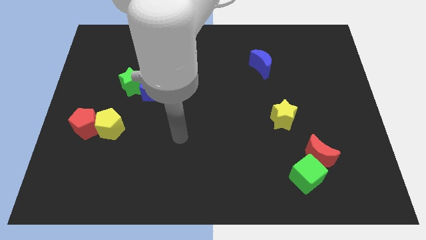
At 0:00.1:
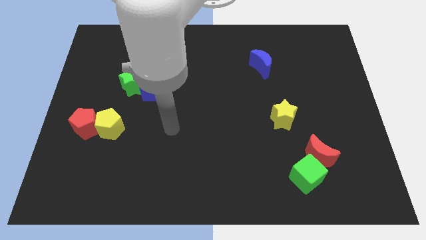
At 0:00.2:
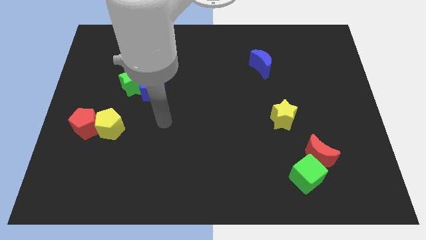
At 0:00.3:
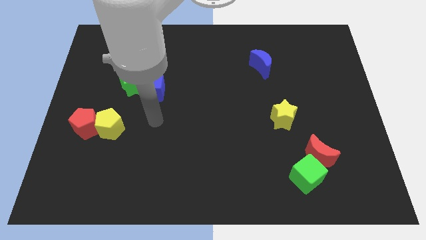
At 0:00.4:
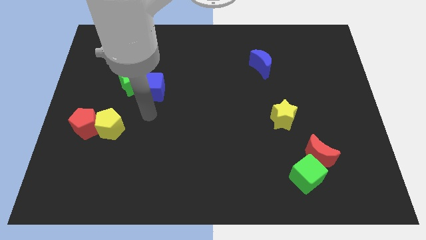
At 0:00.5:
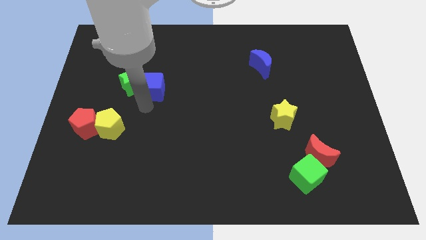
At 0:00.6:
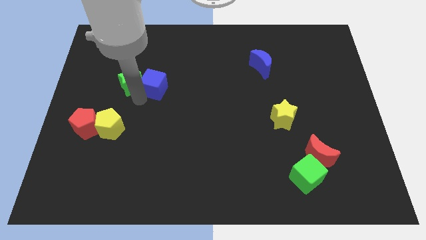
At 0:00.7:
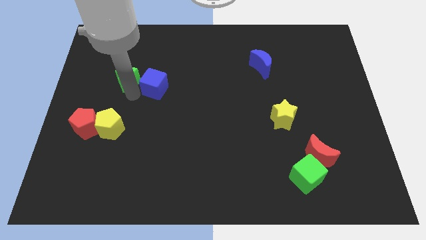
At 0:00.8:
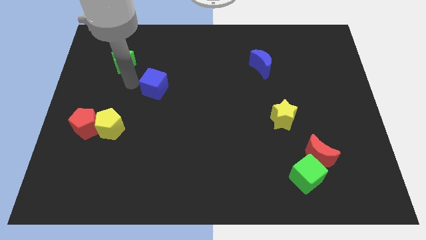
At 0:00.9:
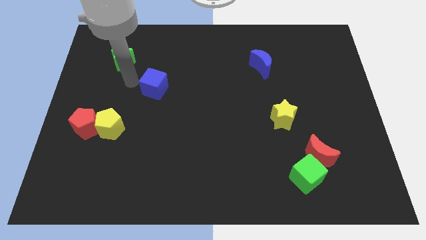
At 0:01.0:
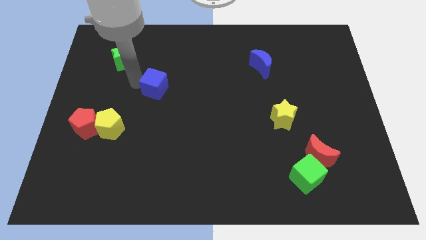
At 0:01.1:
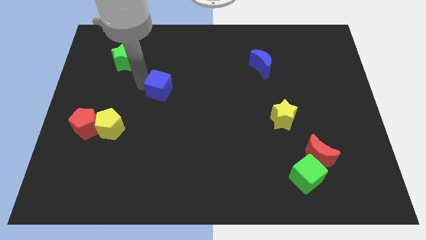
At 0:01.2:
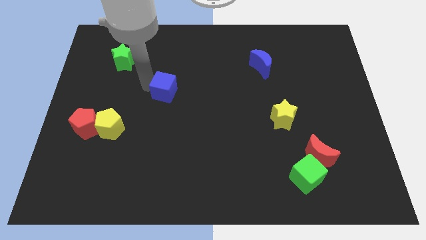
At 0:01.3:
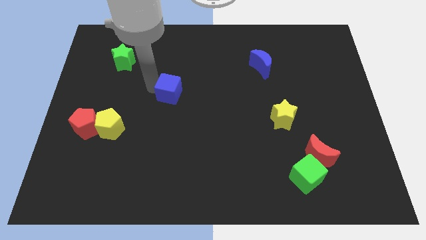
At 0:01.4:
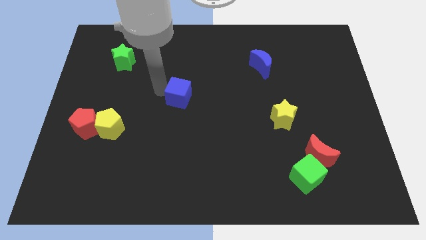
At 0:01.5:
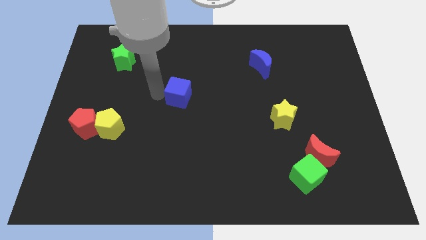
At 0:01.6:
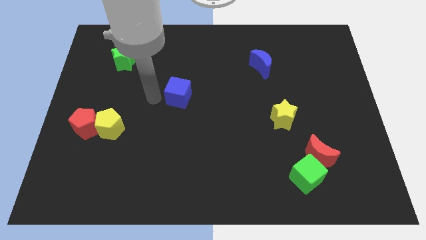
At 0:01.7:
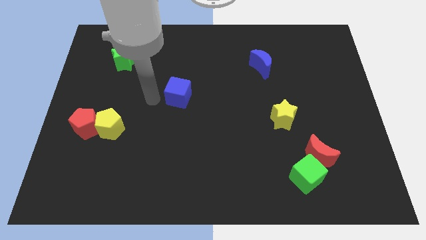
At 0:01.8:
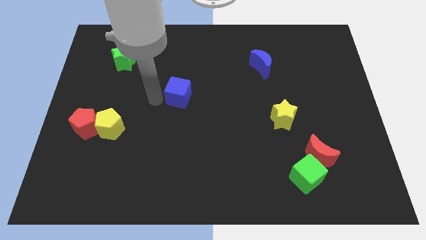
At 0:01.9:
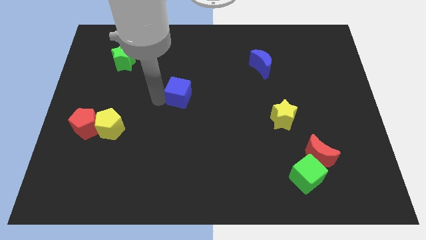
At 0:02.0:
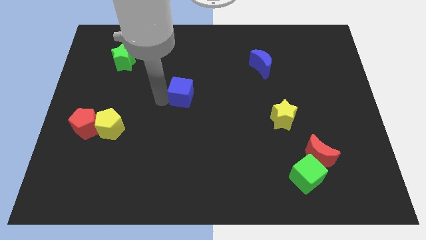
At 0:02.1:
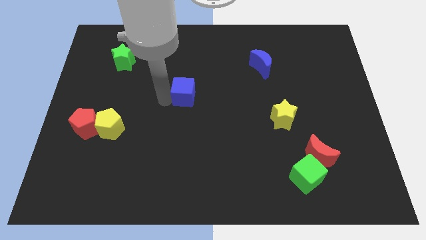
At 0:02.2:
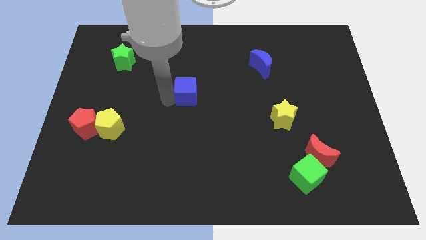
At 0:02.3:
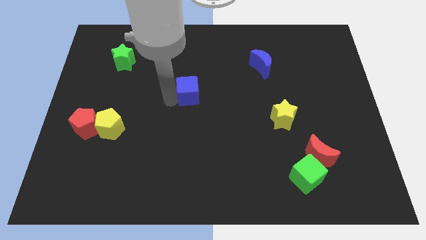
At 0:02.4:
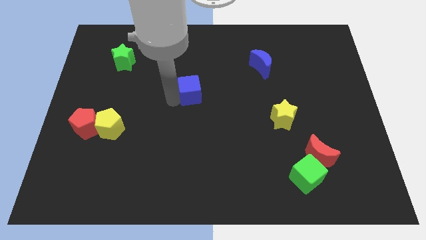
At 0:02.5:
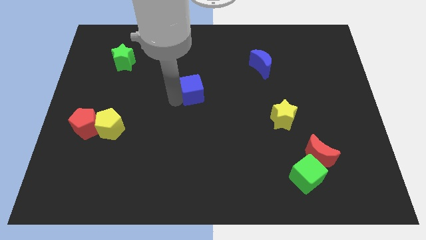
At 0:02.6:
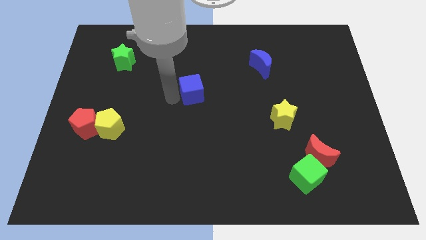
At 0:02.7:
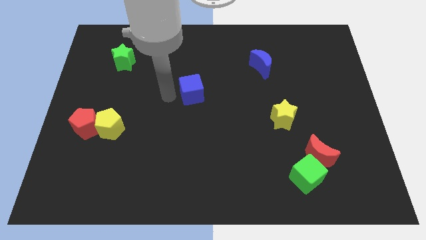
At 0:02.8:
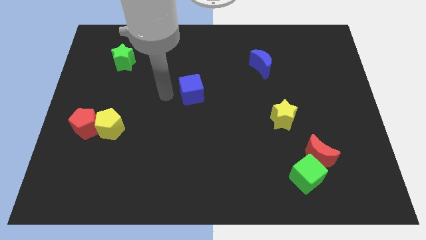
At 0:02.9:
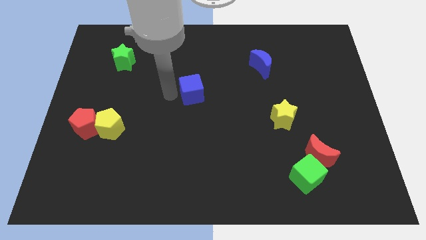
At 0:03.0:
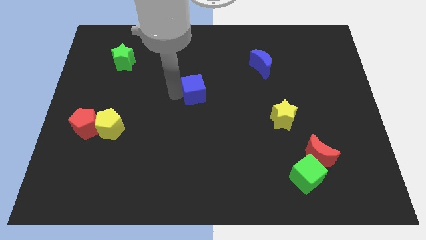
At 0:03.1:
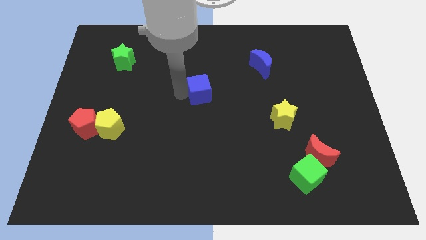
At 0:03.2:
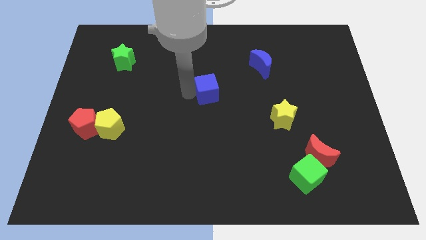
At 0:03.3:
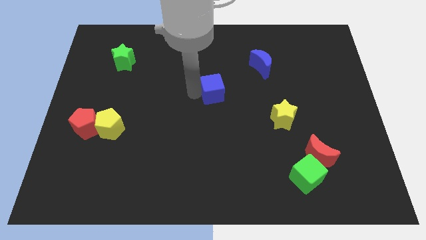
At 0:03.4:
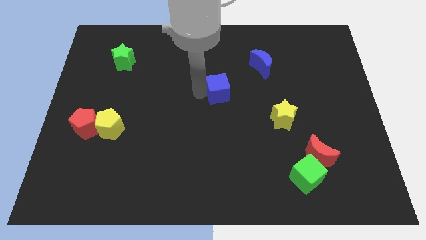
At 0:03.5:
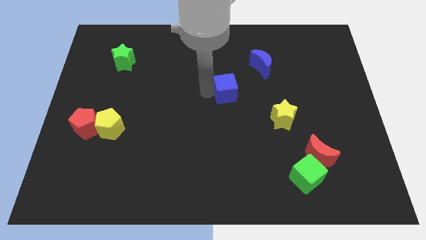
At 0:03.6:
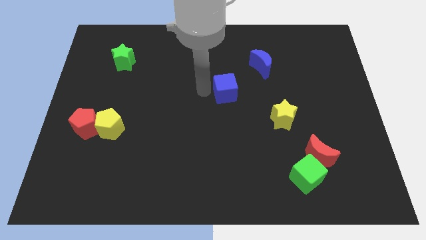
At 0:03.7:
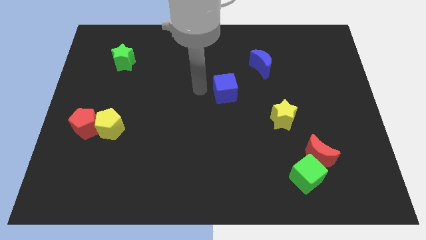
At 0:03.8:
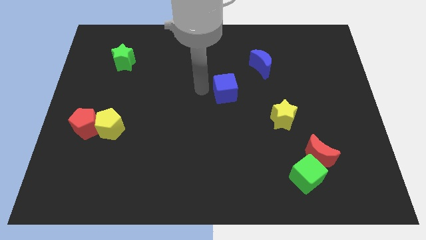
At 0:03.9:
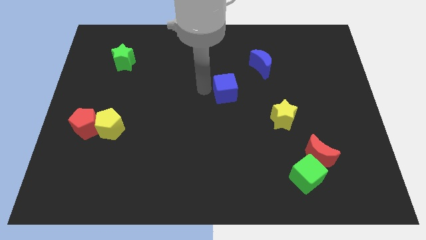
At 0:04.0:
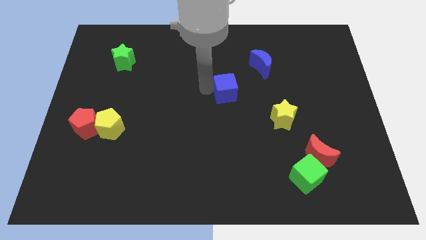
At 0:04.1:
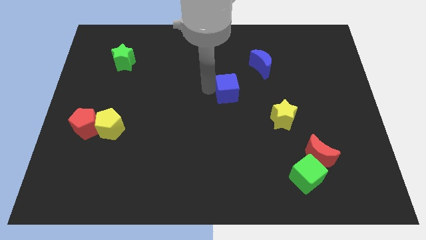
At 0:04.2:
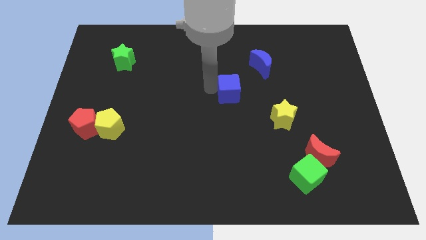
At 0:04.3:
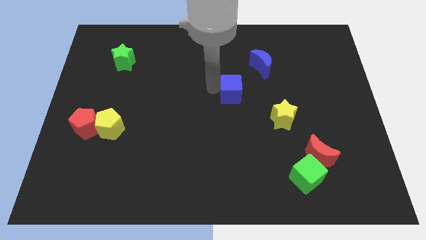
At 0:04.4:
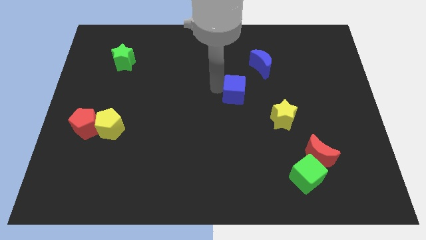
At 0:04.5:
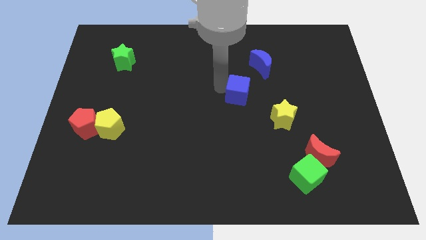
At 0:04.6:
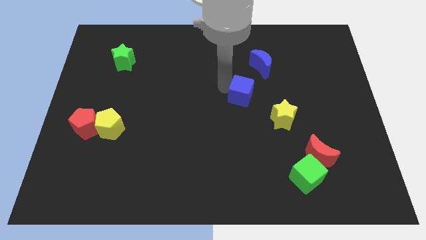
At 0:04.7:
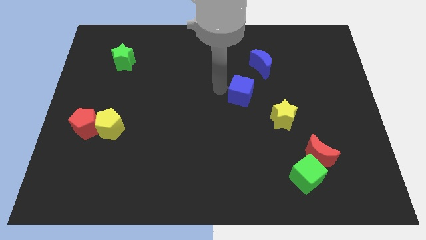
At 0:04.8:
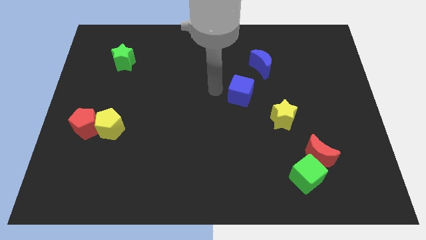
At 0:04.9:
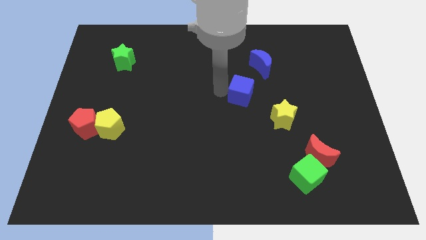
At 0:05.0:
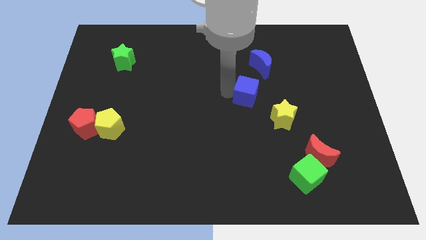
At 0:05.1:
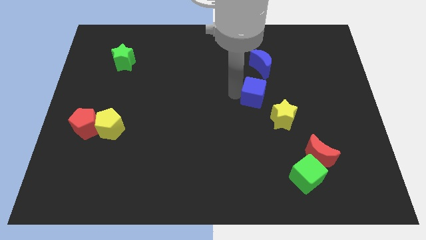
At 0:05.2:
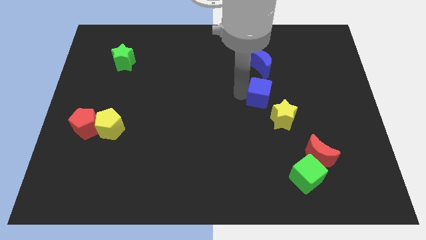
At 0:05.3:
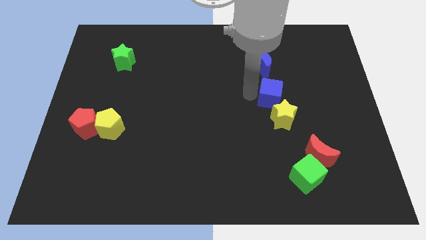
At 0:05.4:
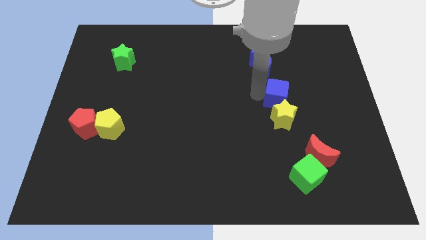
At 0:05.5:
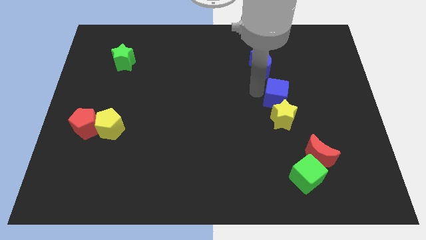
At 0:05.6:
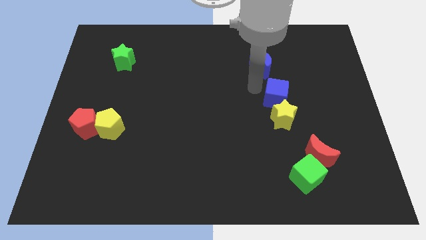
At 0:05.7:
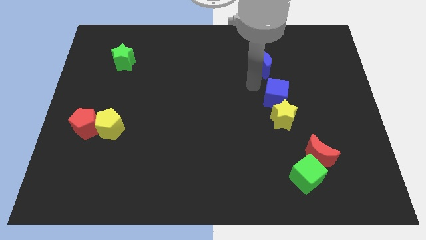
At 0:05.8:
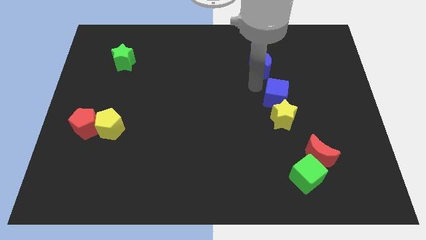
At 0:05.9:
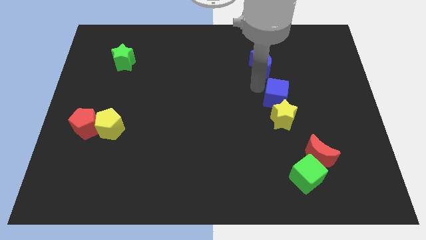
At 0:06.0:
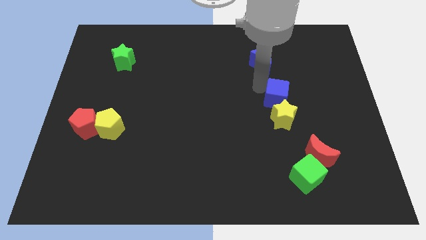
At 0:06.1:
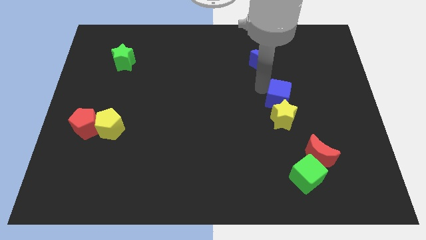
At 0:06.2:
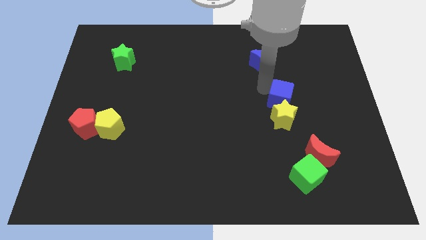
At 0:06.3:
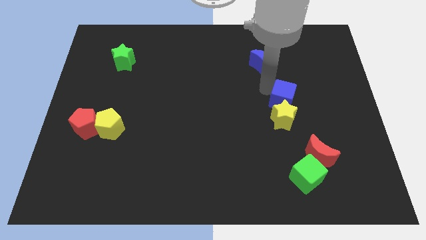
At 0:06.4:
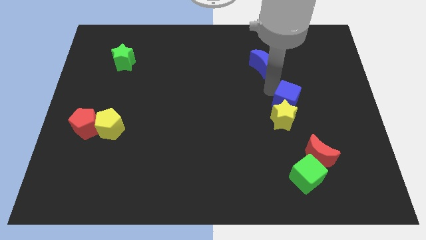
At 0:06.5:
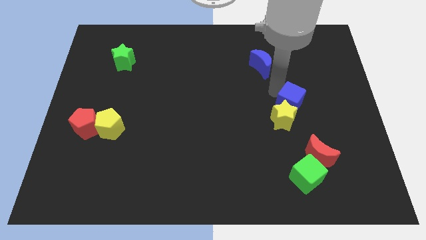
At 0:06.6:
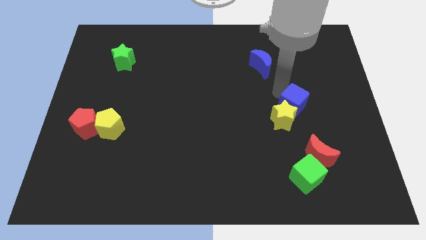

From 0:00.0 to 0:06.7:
slide the blue cube to the right of the yellow star
